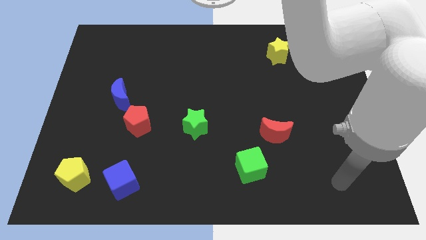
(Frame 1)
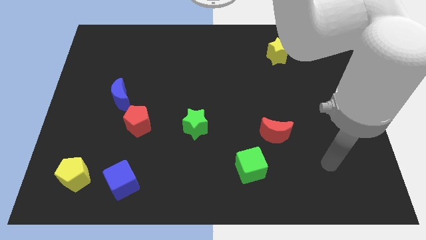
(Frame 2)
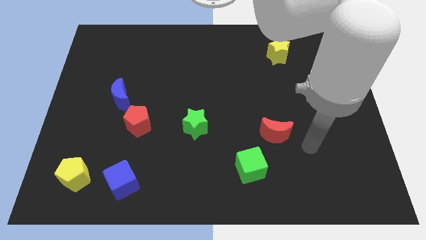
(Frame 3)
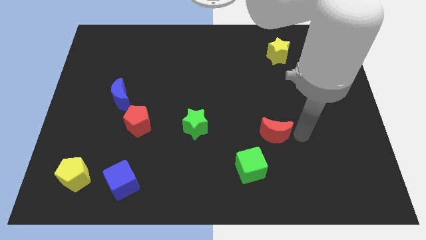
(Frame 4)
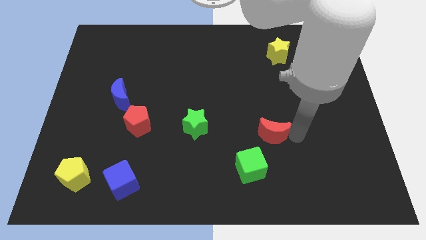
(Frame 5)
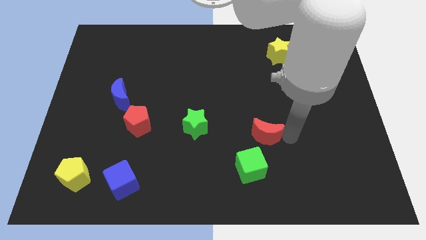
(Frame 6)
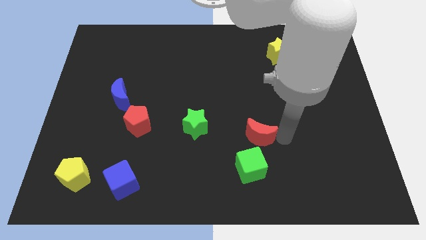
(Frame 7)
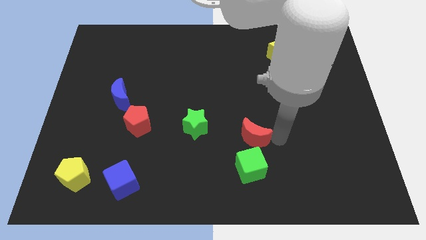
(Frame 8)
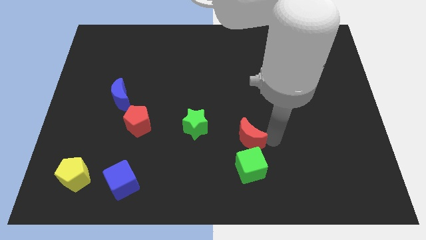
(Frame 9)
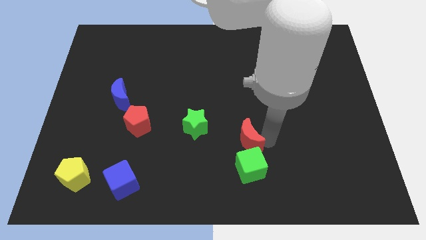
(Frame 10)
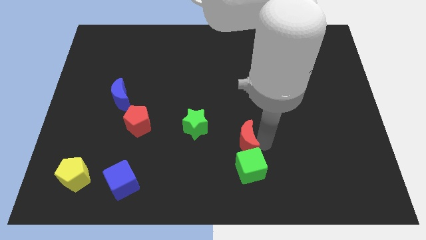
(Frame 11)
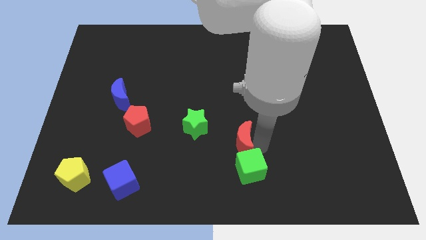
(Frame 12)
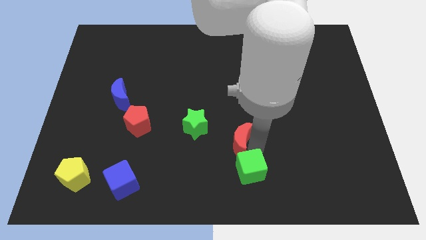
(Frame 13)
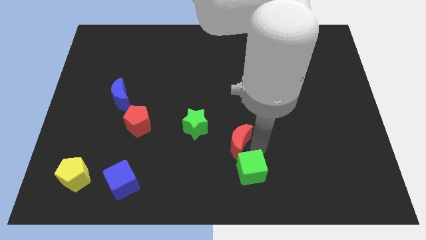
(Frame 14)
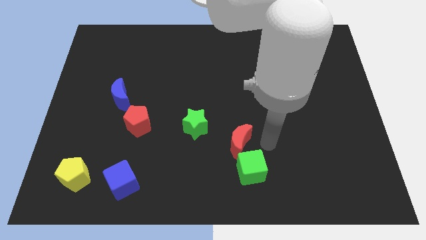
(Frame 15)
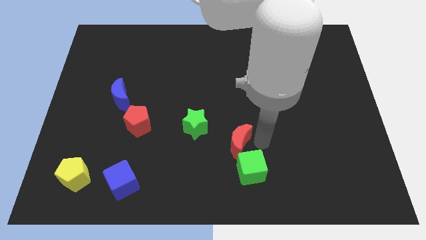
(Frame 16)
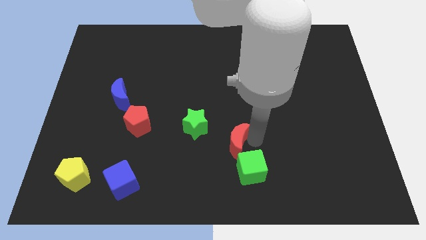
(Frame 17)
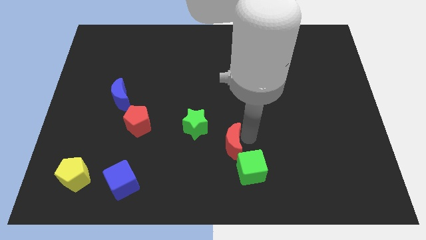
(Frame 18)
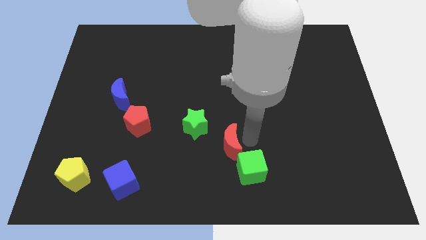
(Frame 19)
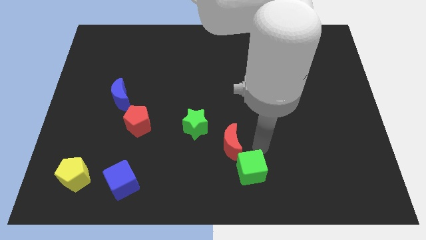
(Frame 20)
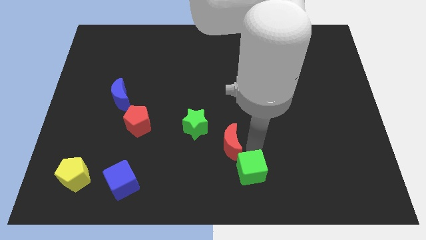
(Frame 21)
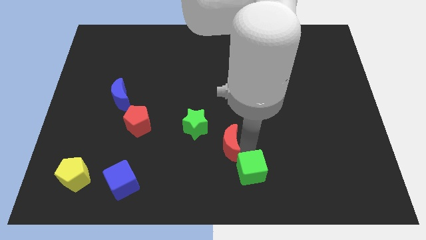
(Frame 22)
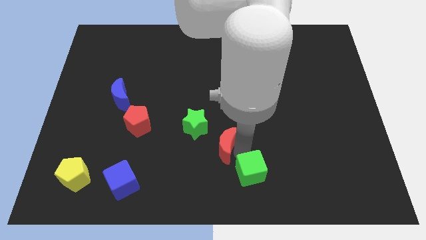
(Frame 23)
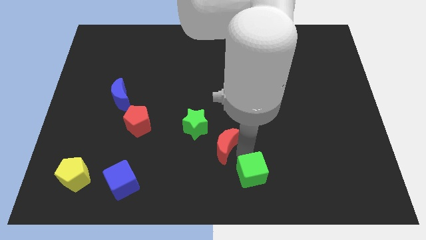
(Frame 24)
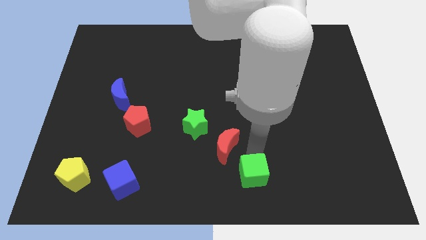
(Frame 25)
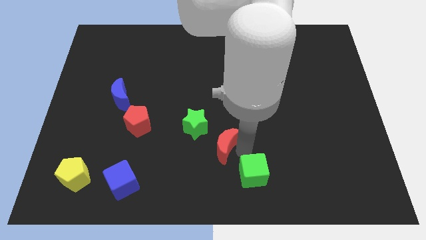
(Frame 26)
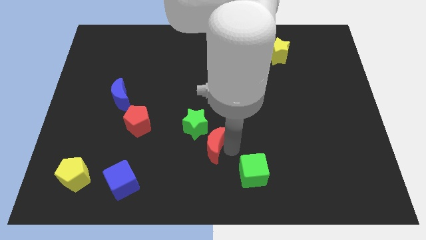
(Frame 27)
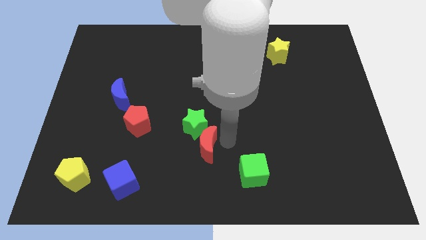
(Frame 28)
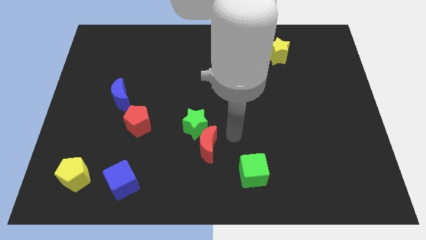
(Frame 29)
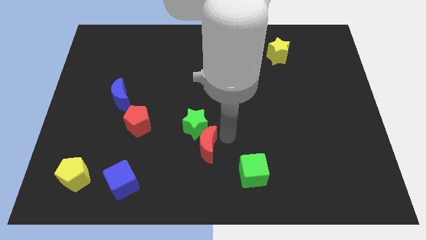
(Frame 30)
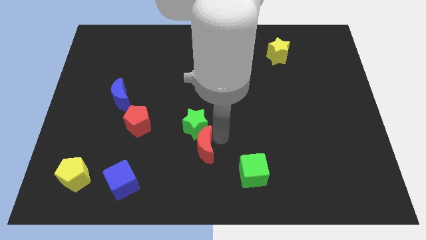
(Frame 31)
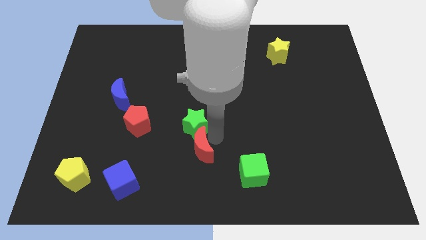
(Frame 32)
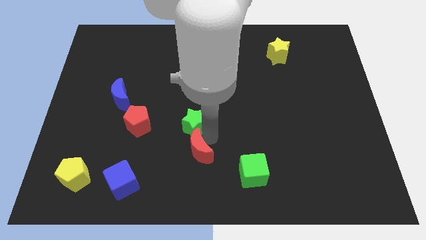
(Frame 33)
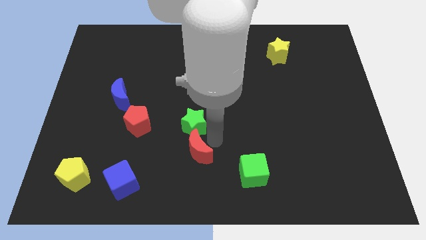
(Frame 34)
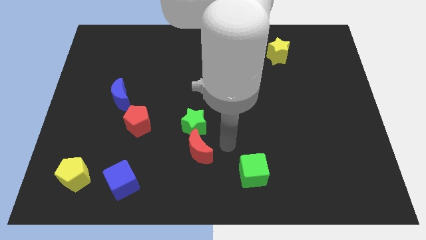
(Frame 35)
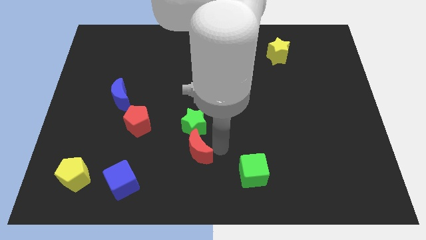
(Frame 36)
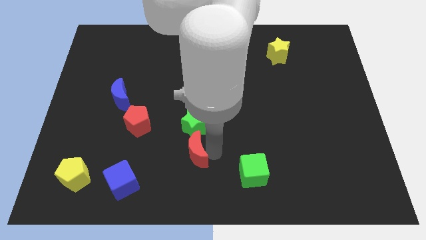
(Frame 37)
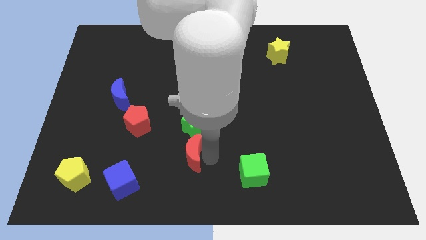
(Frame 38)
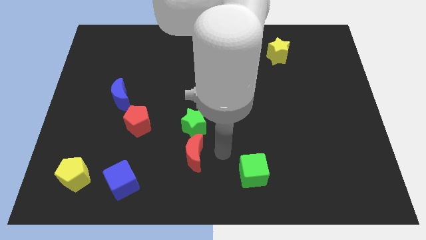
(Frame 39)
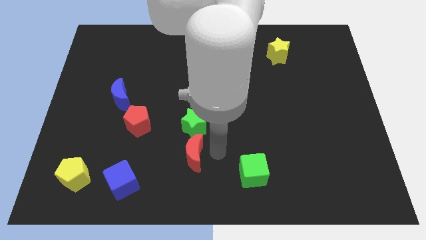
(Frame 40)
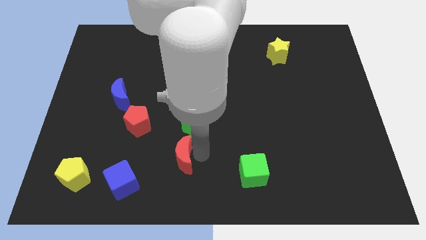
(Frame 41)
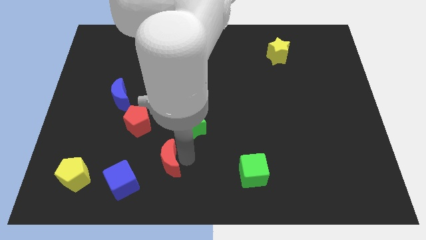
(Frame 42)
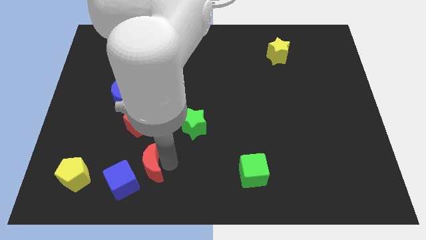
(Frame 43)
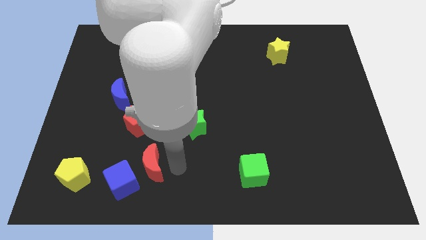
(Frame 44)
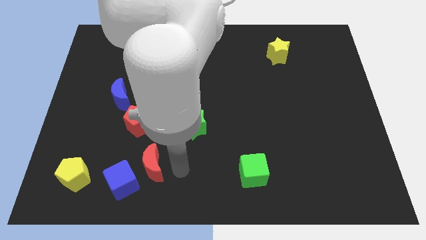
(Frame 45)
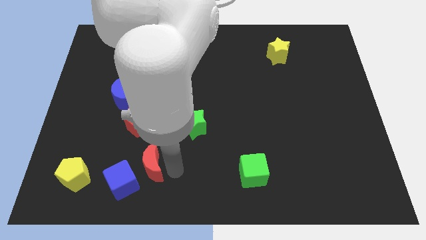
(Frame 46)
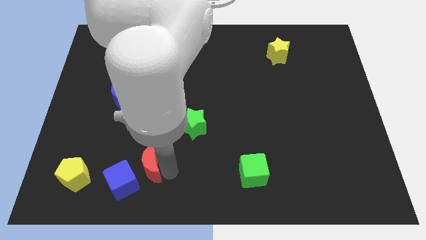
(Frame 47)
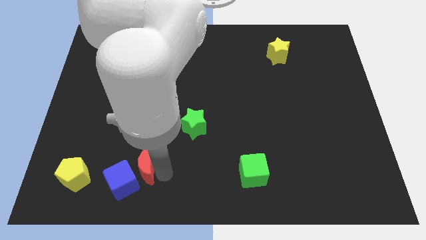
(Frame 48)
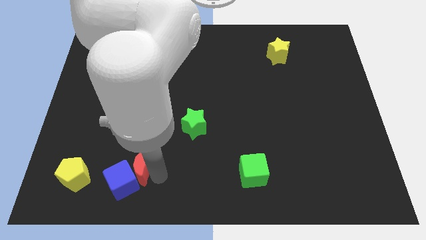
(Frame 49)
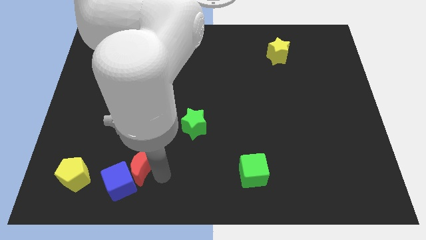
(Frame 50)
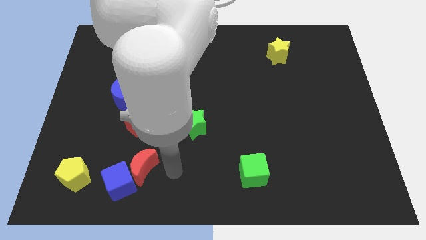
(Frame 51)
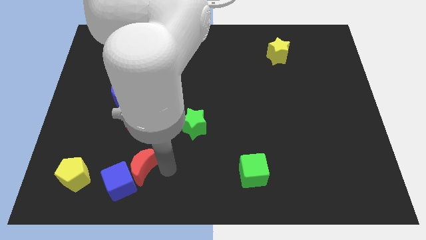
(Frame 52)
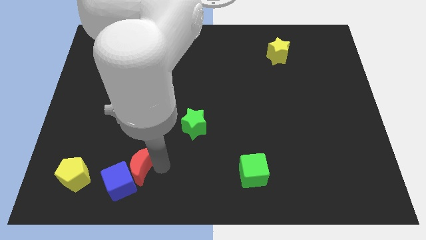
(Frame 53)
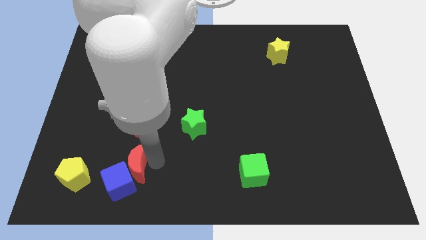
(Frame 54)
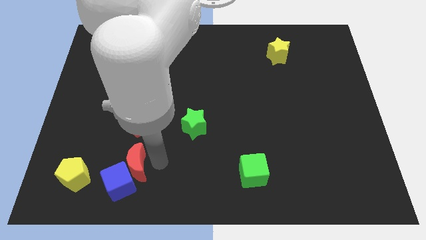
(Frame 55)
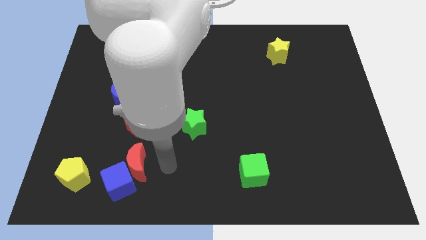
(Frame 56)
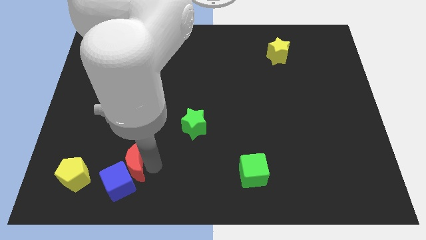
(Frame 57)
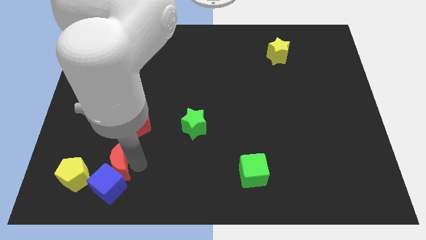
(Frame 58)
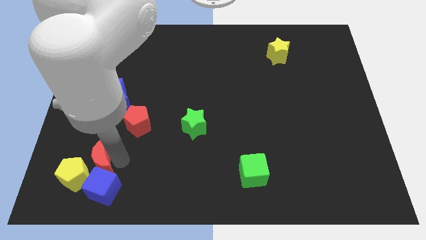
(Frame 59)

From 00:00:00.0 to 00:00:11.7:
put the red moon towards the yellow pentagon

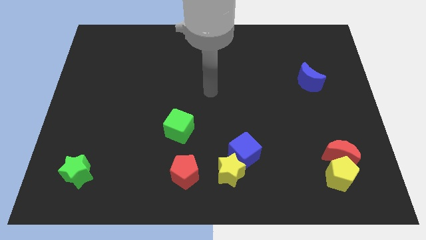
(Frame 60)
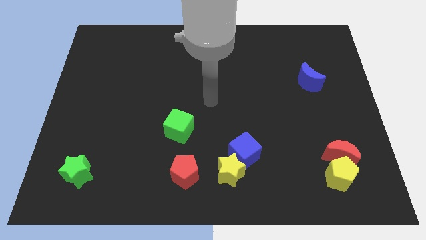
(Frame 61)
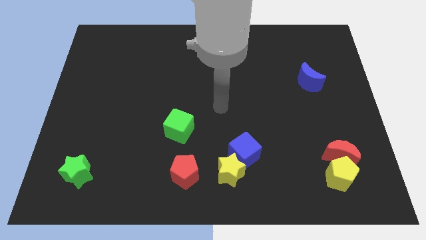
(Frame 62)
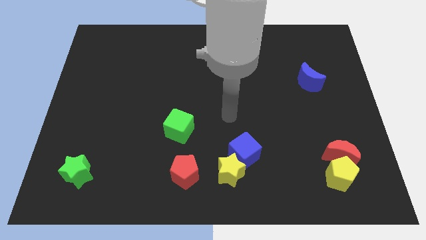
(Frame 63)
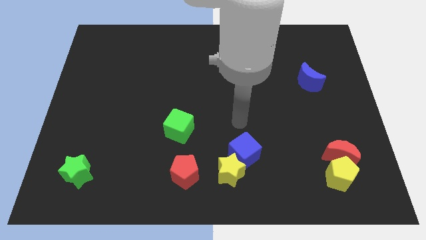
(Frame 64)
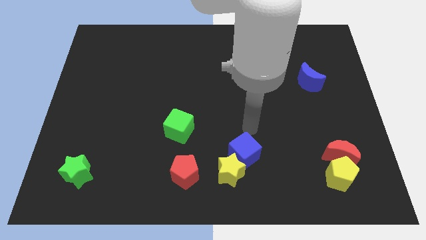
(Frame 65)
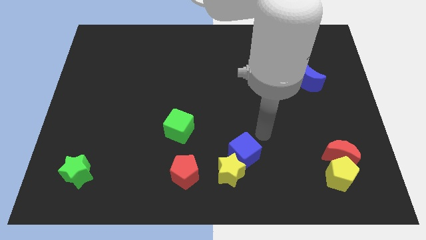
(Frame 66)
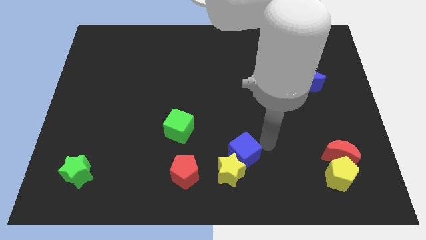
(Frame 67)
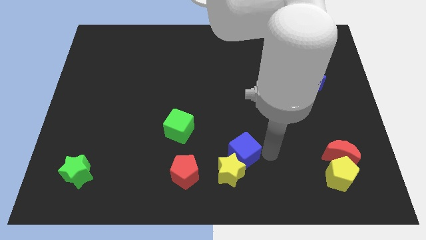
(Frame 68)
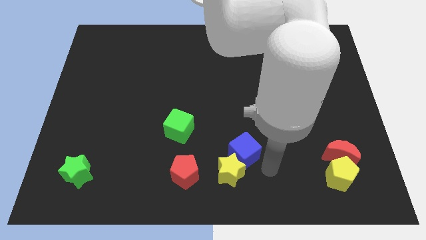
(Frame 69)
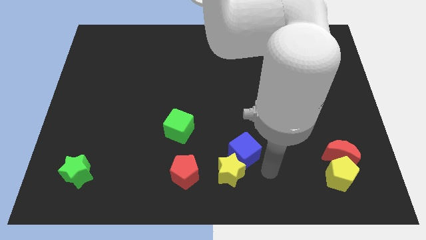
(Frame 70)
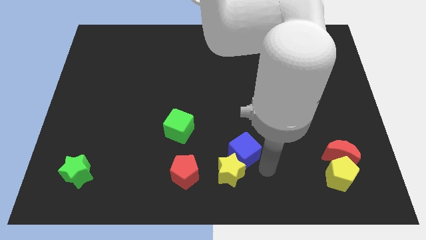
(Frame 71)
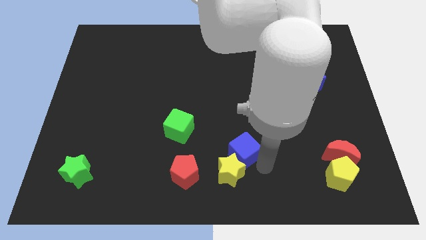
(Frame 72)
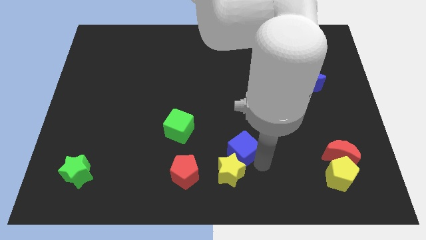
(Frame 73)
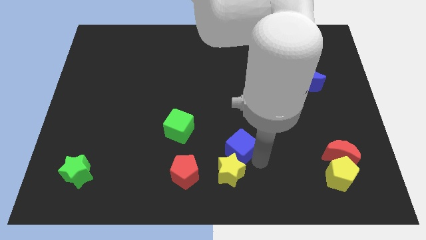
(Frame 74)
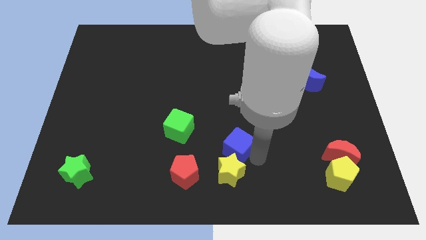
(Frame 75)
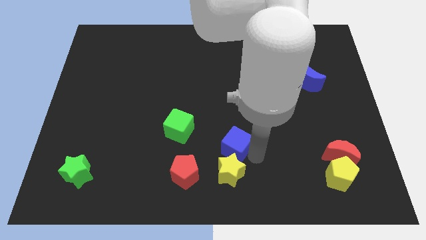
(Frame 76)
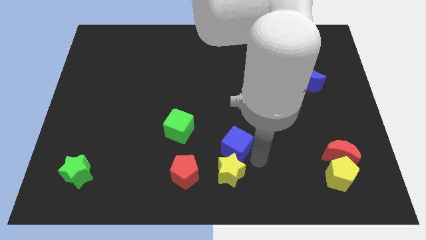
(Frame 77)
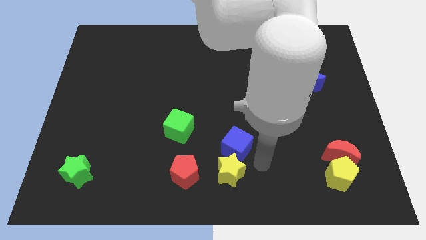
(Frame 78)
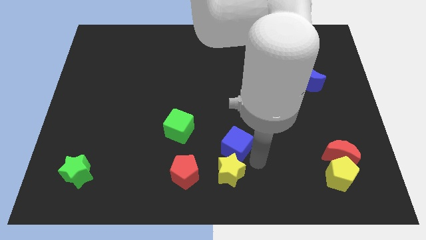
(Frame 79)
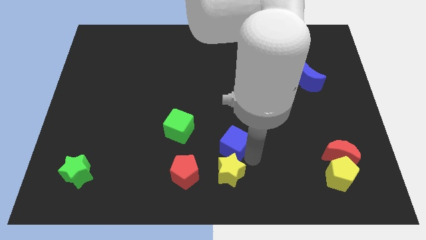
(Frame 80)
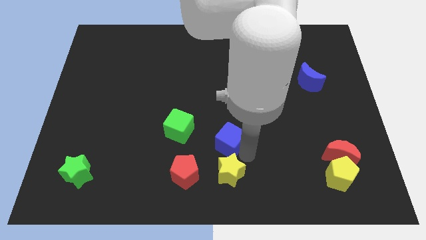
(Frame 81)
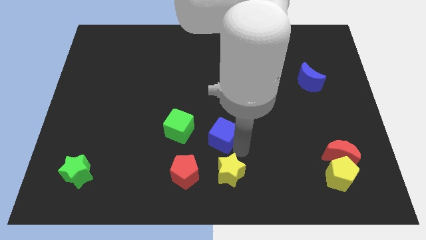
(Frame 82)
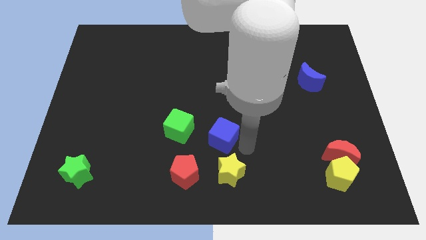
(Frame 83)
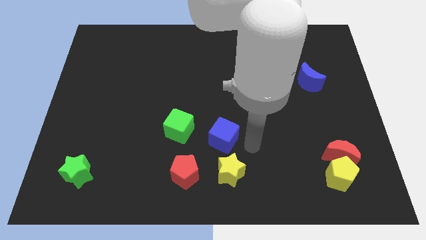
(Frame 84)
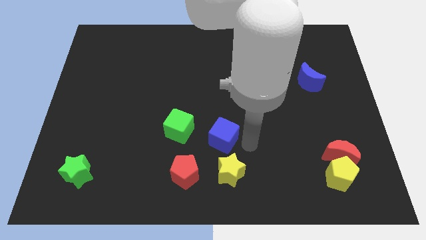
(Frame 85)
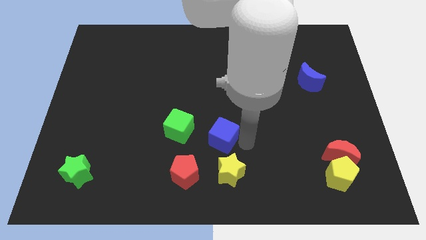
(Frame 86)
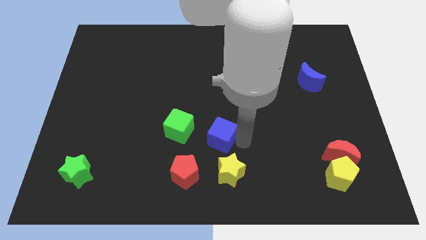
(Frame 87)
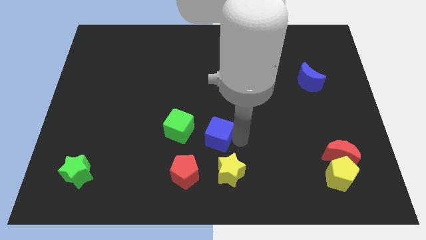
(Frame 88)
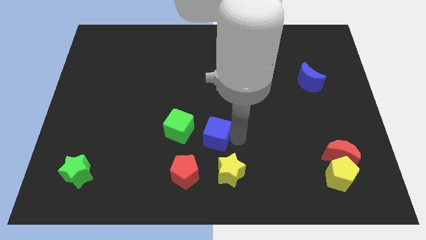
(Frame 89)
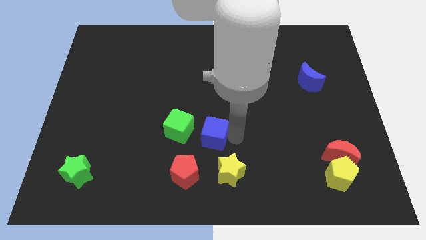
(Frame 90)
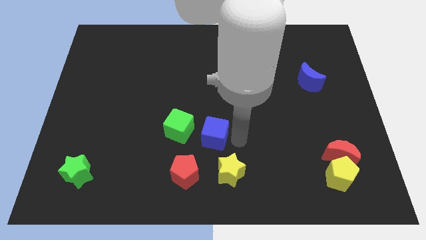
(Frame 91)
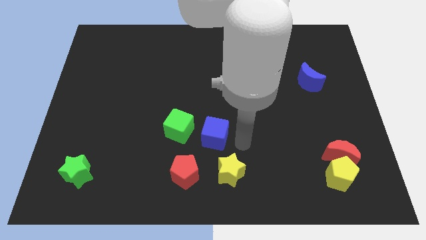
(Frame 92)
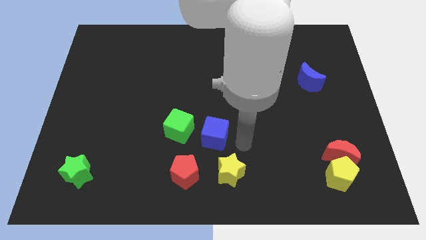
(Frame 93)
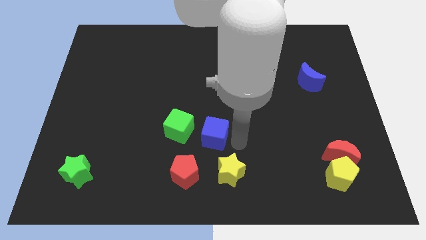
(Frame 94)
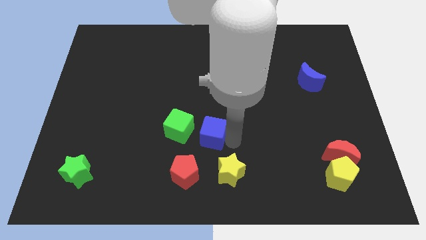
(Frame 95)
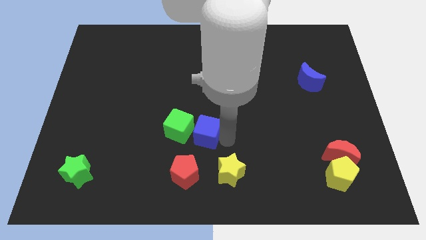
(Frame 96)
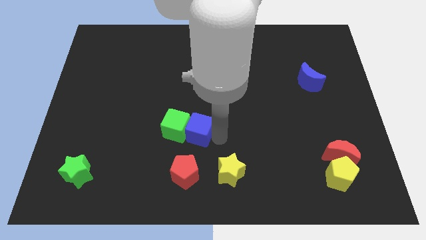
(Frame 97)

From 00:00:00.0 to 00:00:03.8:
put the blue cube to the green cube
